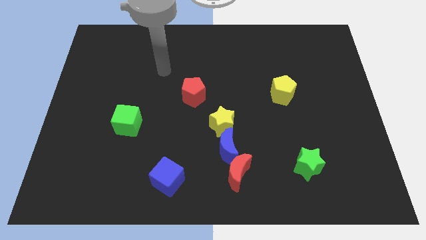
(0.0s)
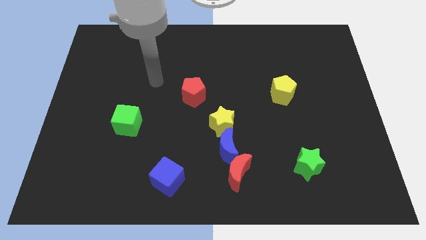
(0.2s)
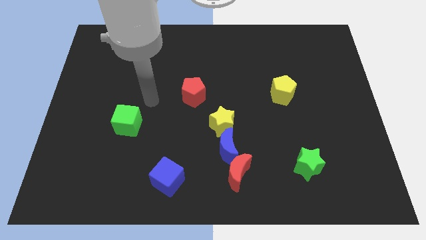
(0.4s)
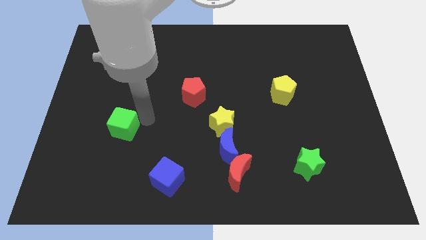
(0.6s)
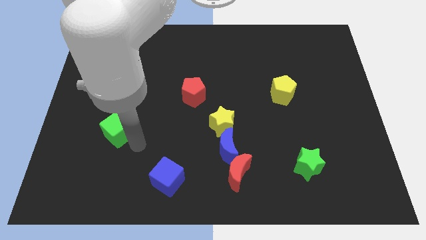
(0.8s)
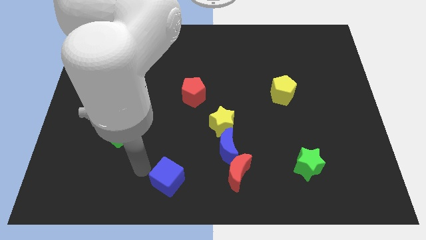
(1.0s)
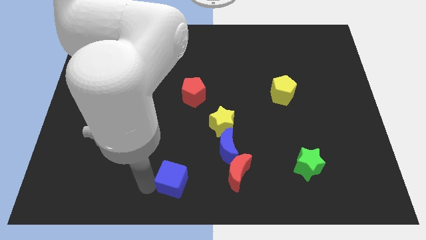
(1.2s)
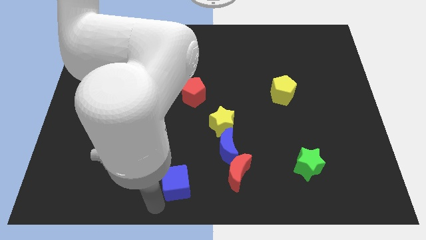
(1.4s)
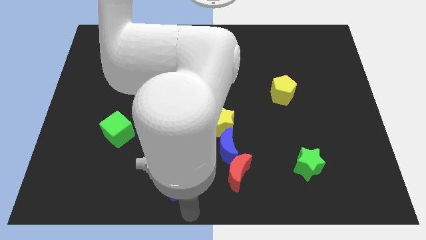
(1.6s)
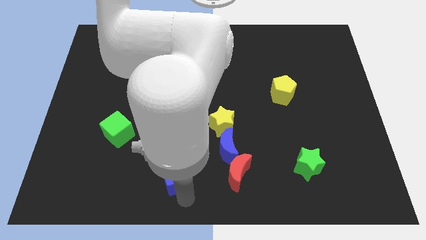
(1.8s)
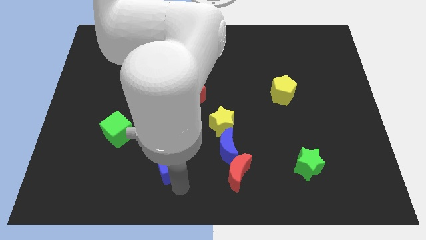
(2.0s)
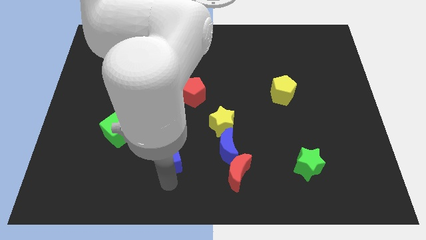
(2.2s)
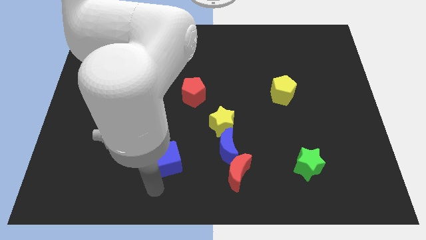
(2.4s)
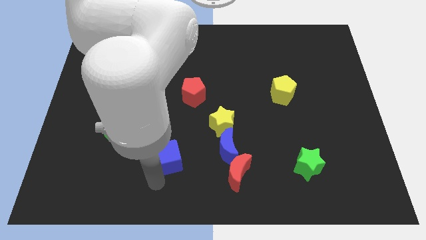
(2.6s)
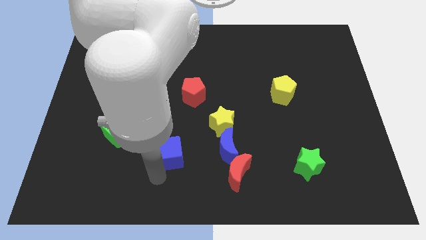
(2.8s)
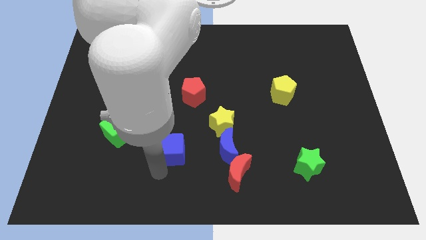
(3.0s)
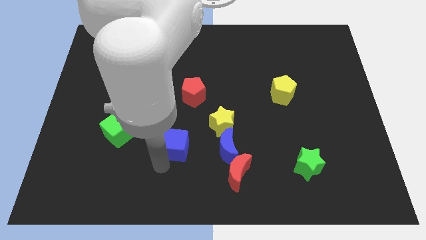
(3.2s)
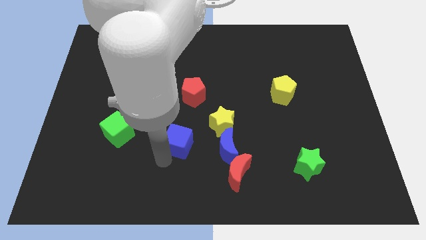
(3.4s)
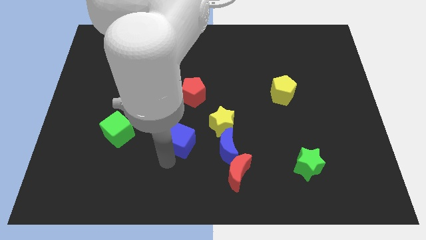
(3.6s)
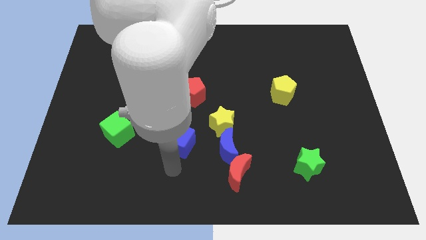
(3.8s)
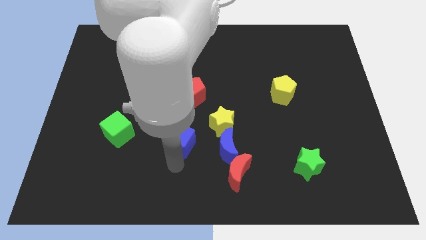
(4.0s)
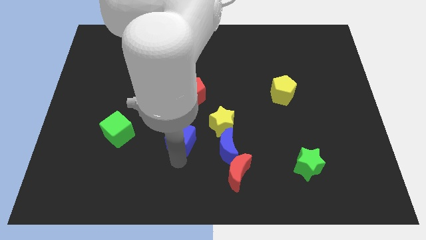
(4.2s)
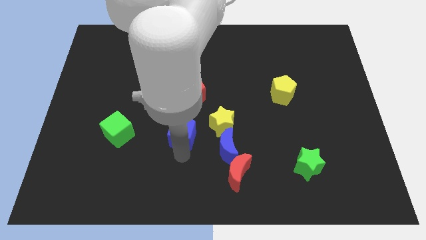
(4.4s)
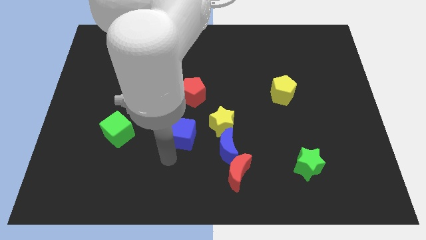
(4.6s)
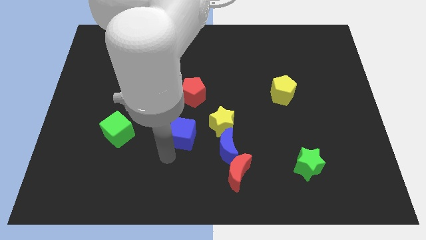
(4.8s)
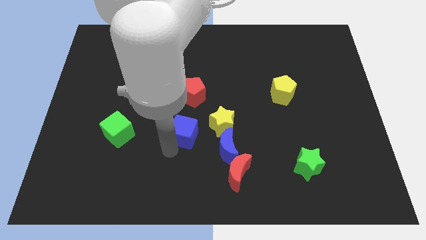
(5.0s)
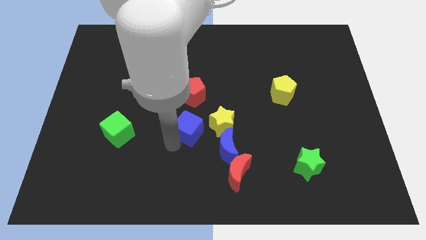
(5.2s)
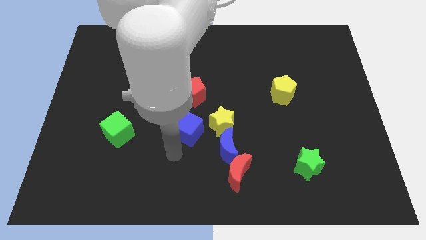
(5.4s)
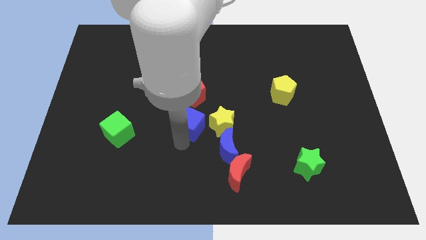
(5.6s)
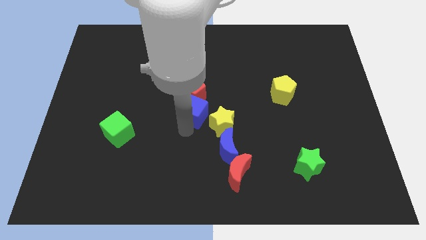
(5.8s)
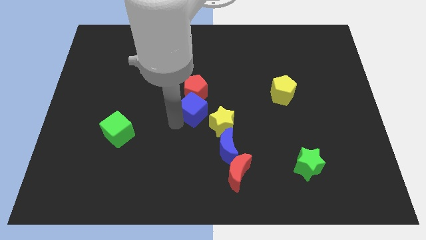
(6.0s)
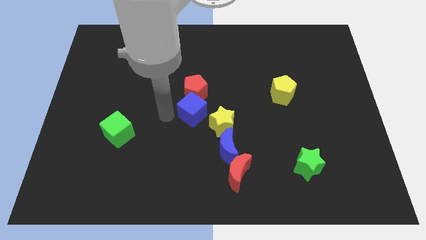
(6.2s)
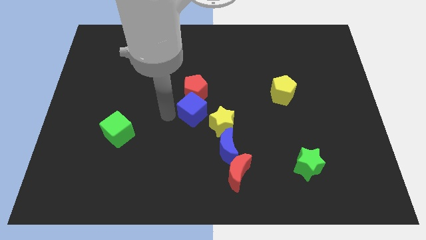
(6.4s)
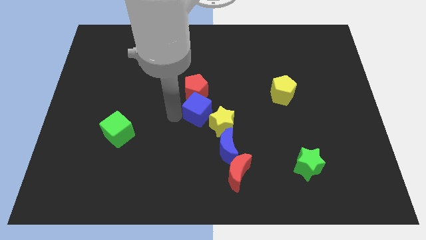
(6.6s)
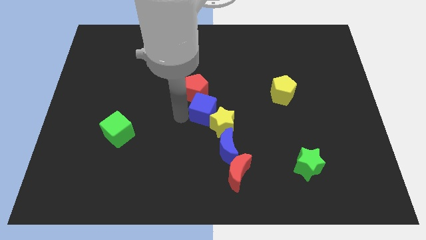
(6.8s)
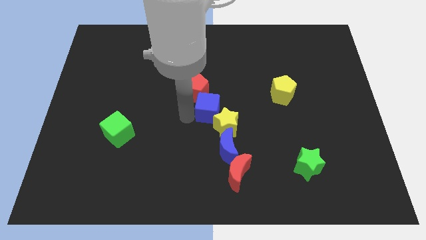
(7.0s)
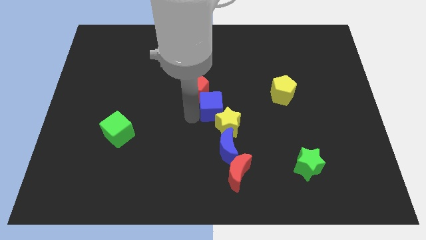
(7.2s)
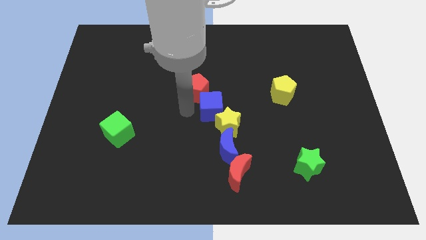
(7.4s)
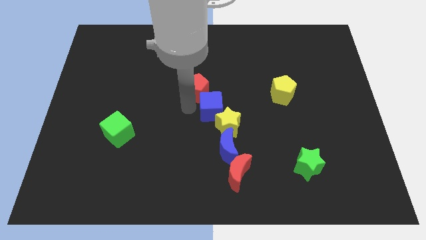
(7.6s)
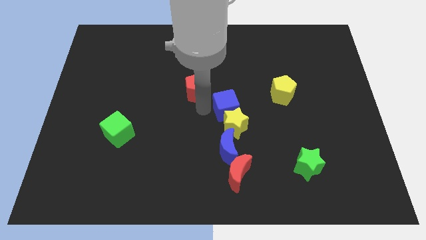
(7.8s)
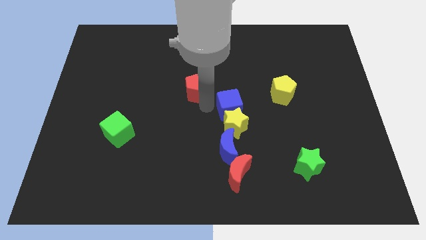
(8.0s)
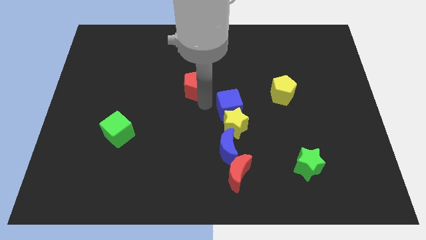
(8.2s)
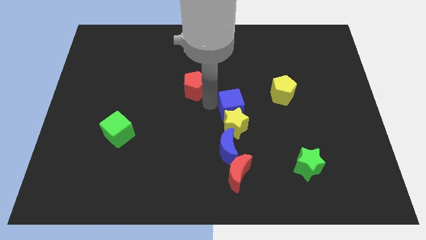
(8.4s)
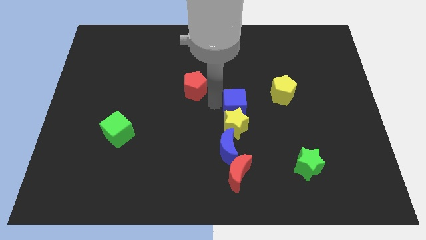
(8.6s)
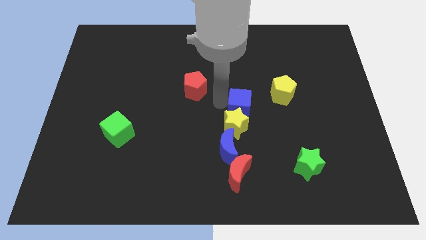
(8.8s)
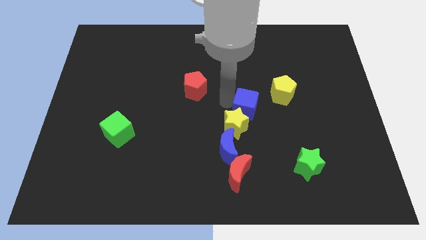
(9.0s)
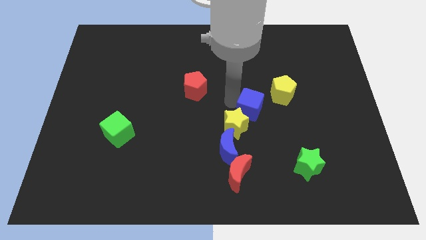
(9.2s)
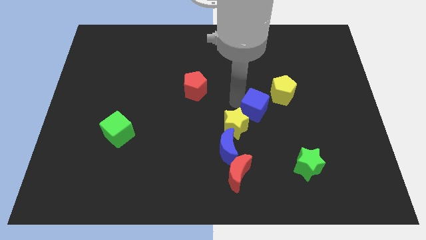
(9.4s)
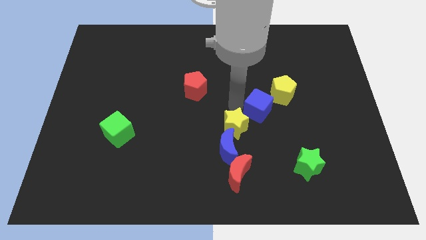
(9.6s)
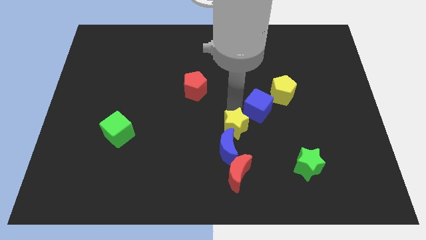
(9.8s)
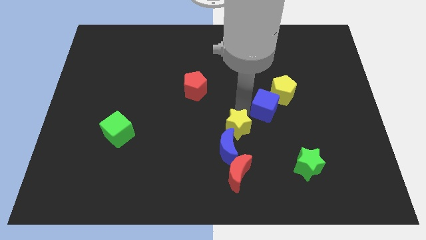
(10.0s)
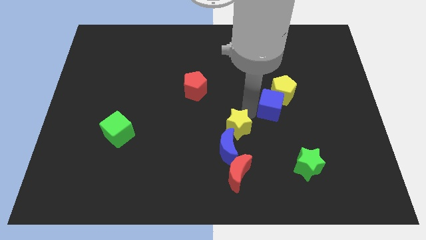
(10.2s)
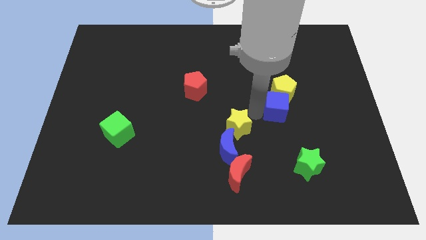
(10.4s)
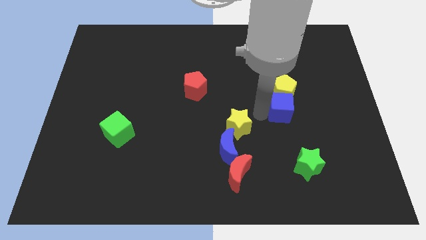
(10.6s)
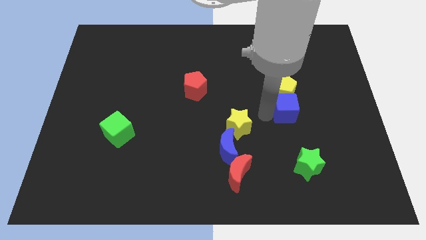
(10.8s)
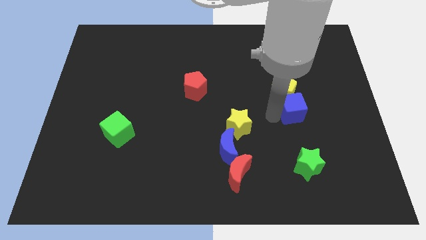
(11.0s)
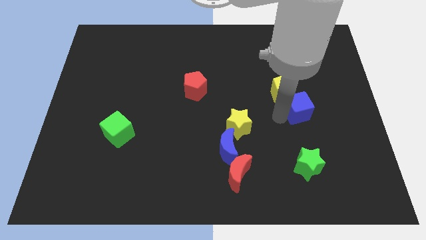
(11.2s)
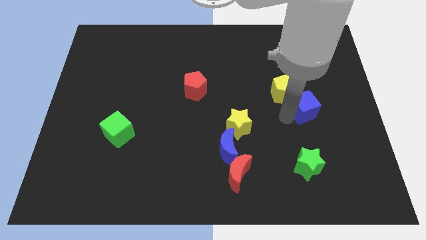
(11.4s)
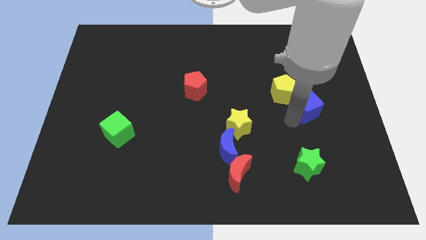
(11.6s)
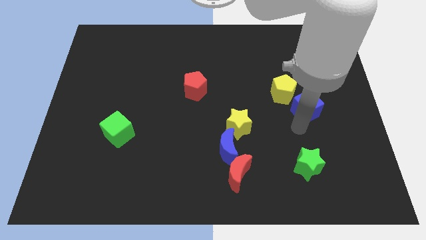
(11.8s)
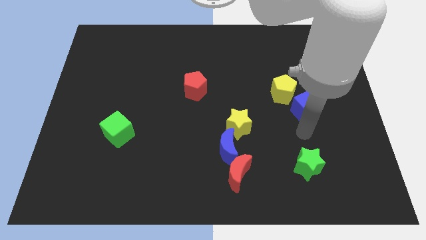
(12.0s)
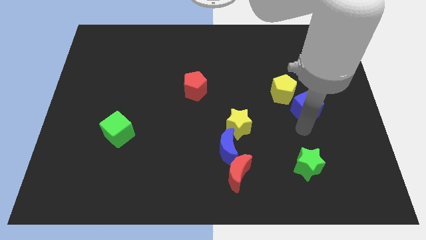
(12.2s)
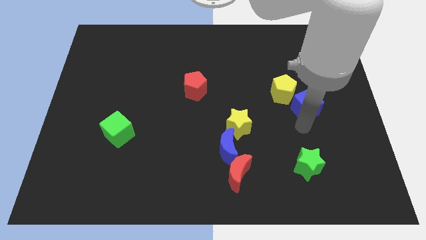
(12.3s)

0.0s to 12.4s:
put the blue cube right of the yellow pentagon

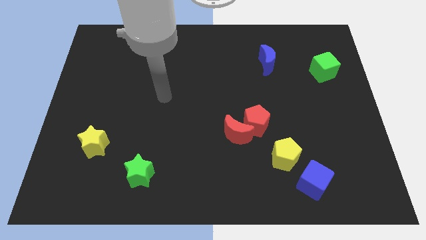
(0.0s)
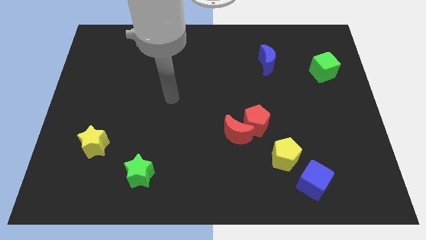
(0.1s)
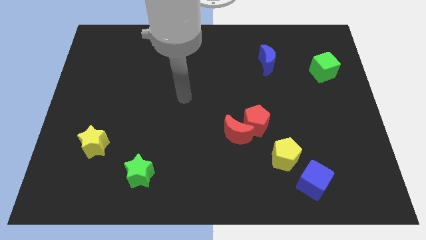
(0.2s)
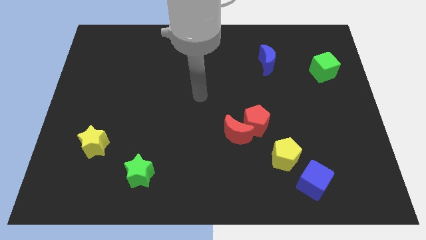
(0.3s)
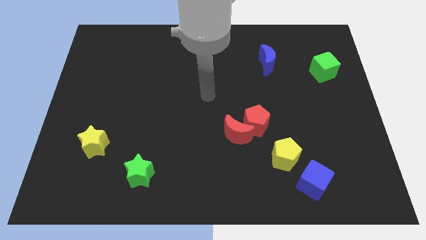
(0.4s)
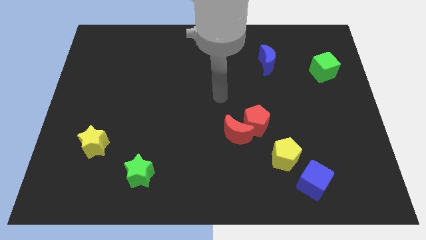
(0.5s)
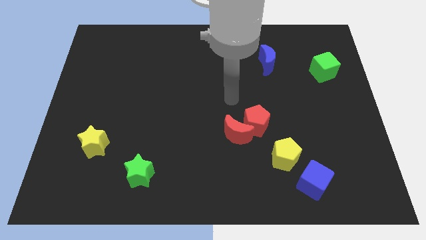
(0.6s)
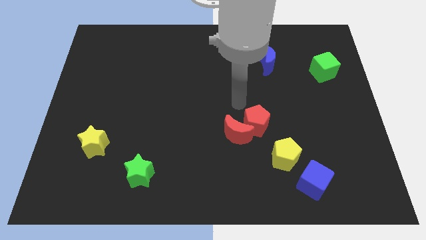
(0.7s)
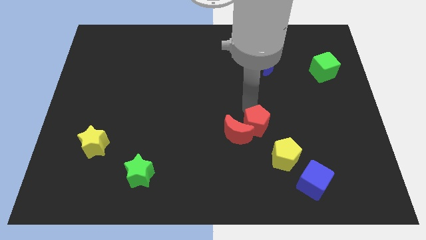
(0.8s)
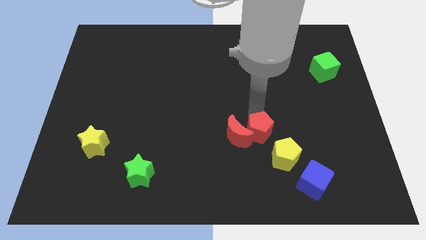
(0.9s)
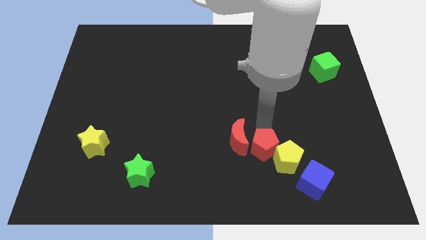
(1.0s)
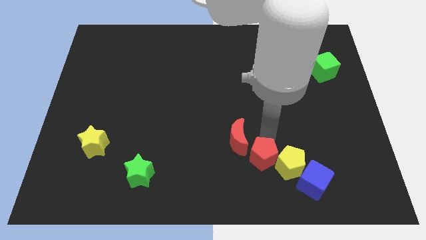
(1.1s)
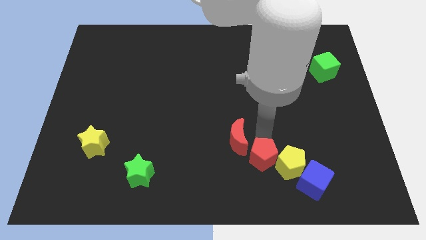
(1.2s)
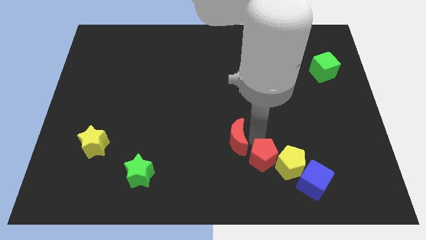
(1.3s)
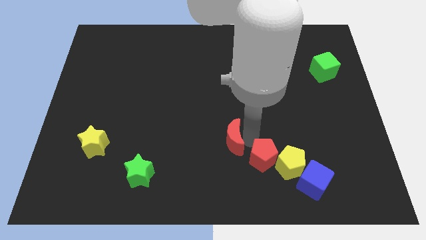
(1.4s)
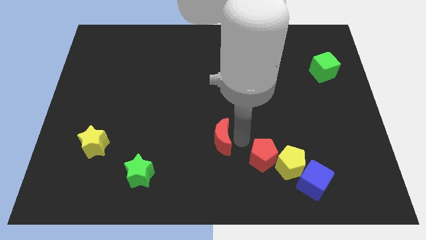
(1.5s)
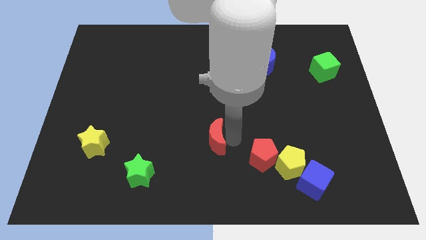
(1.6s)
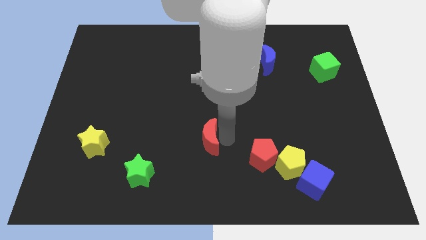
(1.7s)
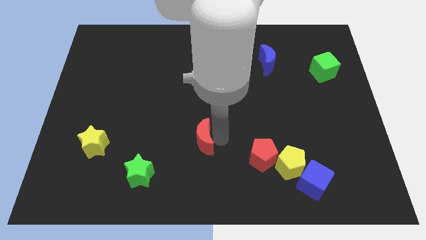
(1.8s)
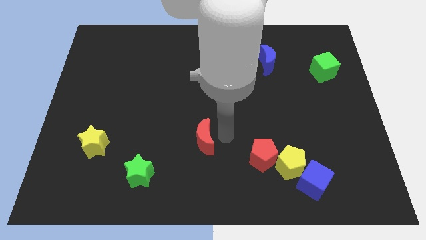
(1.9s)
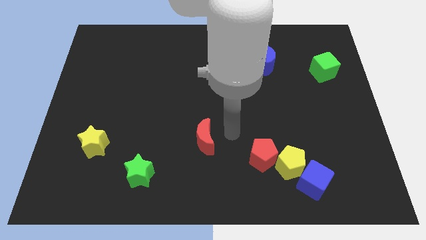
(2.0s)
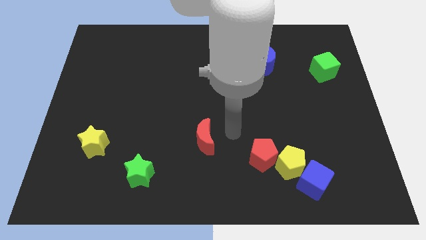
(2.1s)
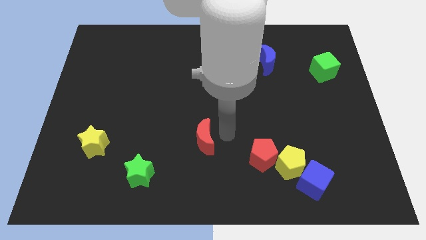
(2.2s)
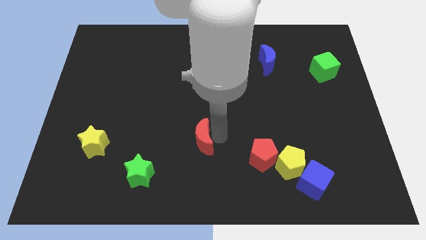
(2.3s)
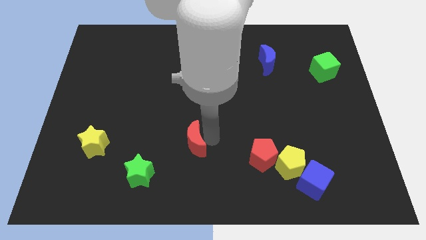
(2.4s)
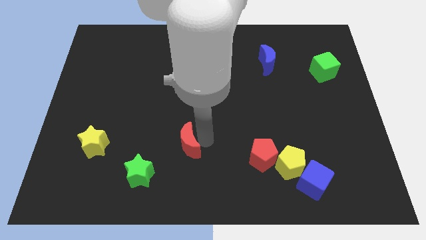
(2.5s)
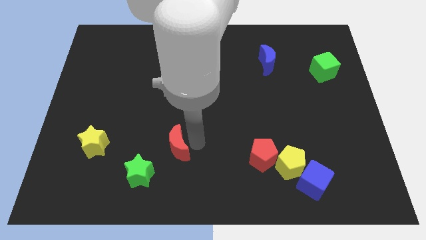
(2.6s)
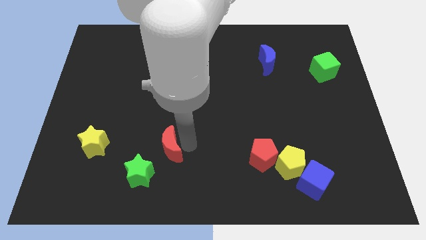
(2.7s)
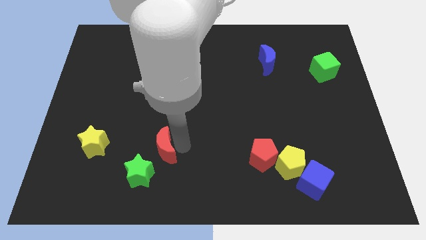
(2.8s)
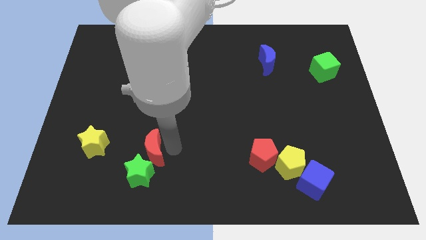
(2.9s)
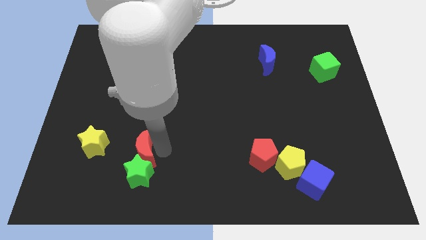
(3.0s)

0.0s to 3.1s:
put the red moon to the top left of the green star
